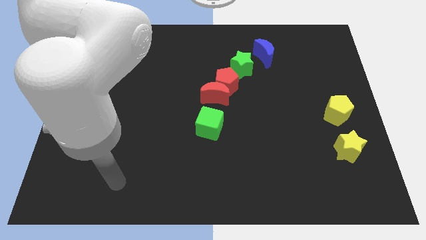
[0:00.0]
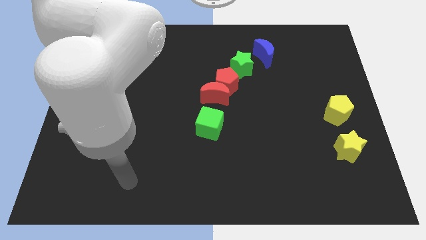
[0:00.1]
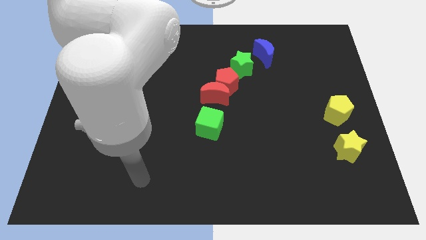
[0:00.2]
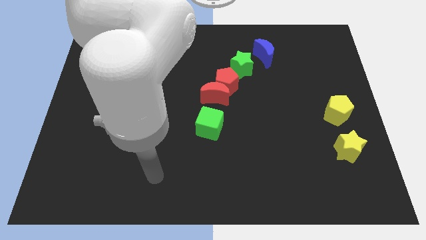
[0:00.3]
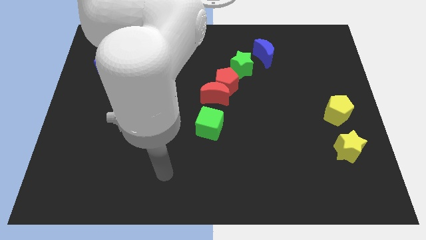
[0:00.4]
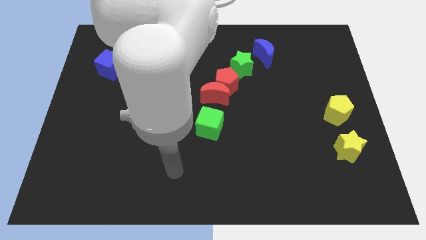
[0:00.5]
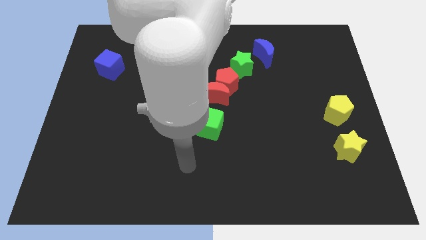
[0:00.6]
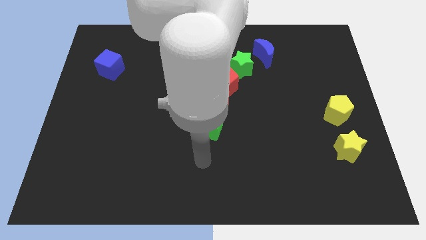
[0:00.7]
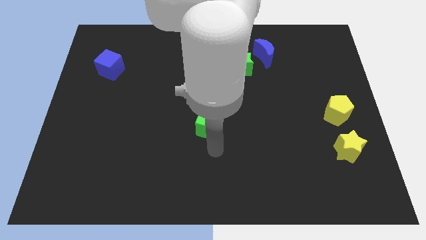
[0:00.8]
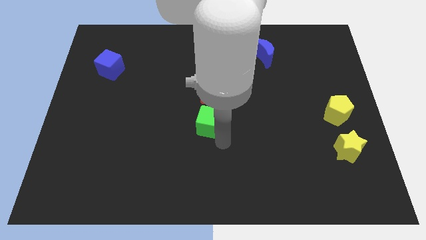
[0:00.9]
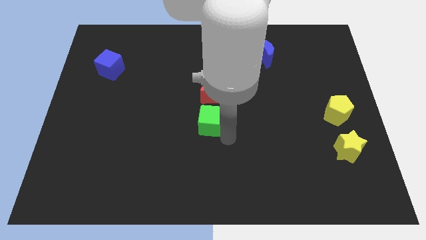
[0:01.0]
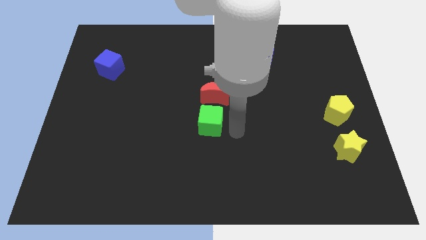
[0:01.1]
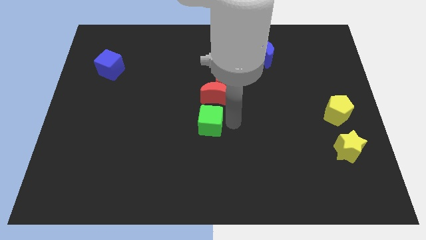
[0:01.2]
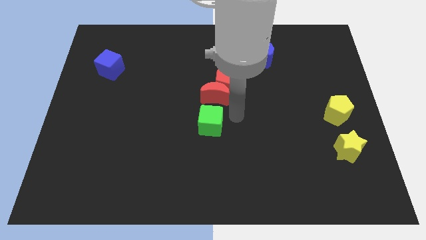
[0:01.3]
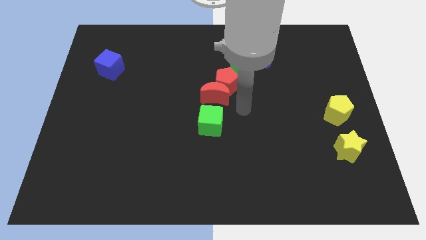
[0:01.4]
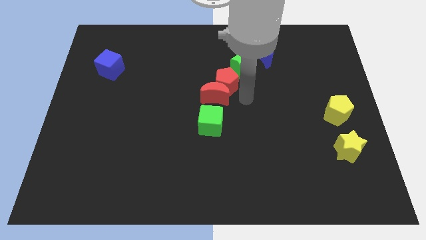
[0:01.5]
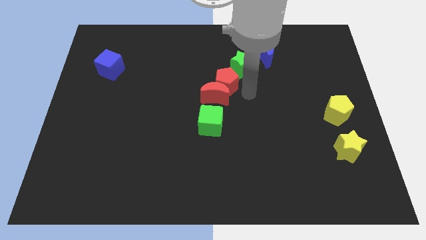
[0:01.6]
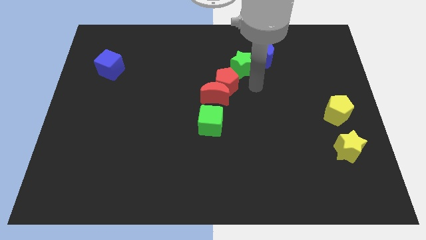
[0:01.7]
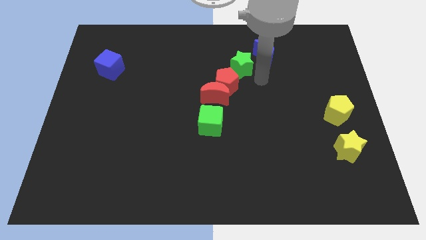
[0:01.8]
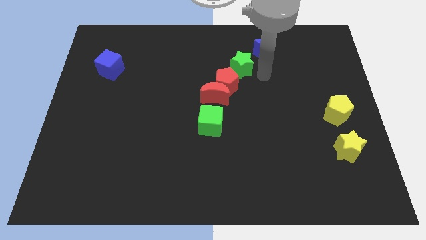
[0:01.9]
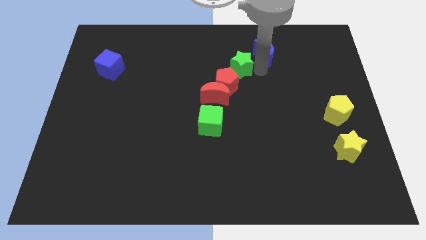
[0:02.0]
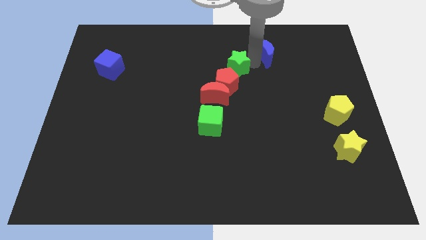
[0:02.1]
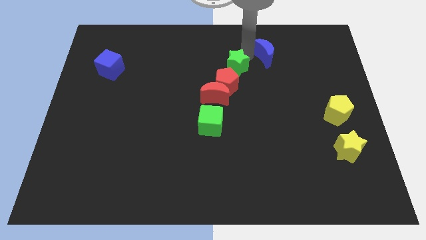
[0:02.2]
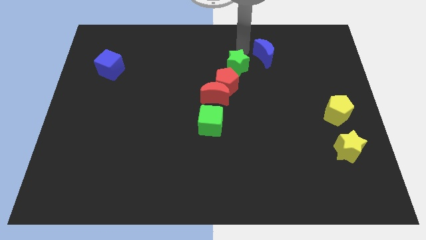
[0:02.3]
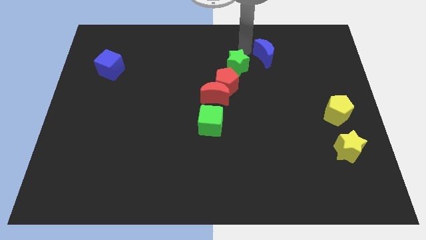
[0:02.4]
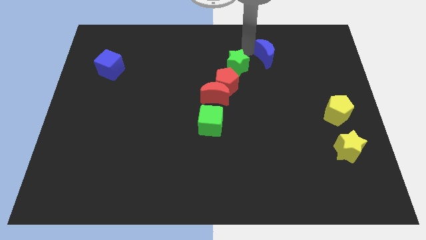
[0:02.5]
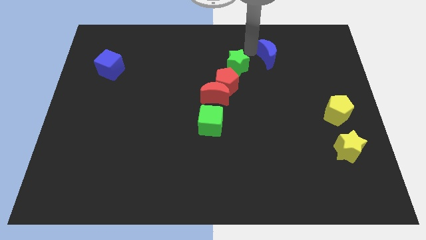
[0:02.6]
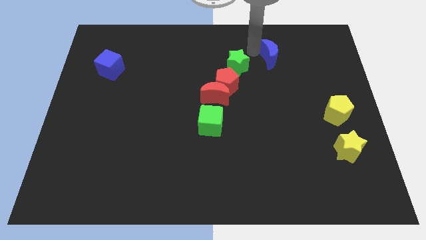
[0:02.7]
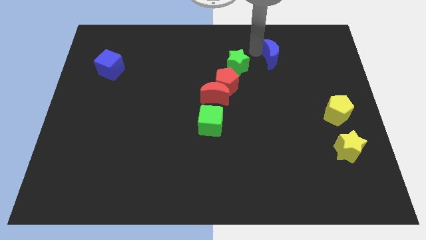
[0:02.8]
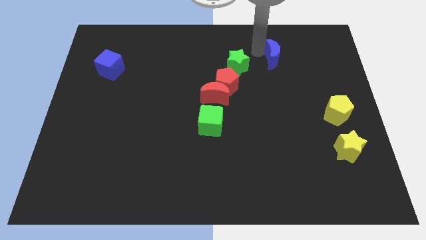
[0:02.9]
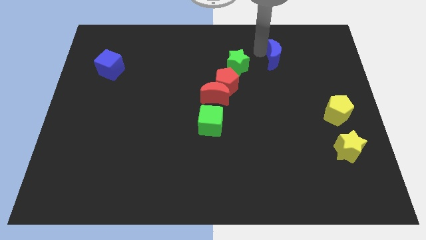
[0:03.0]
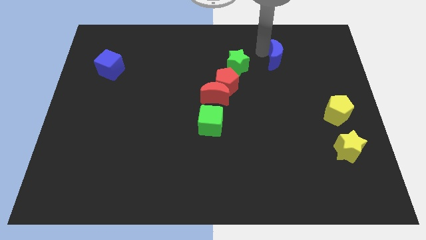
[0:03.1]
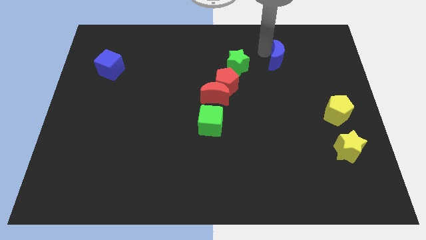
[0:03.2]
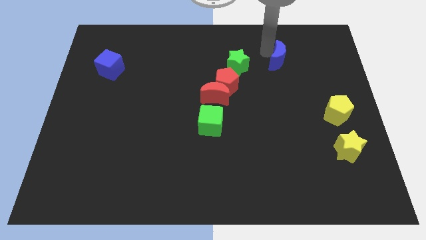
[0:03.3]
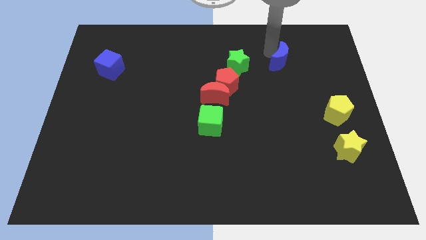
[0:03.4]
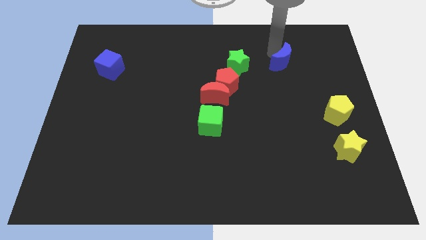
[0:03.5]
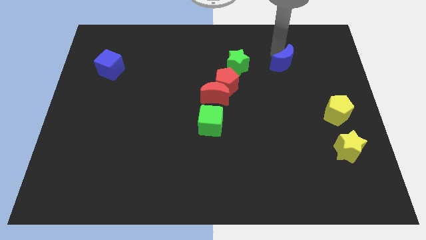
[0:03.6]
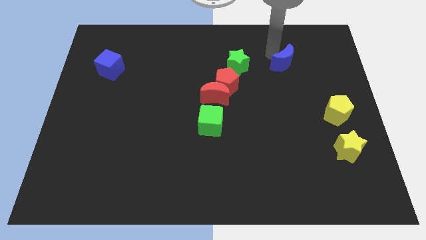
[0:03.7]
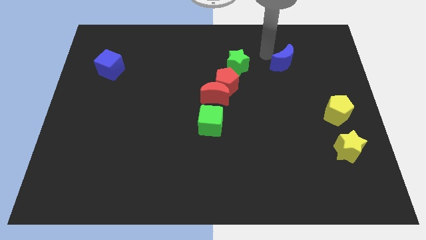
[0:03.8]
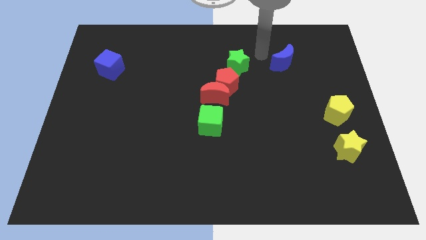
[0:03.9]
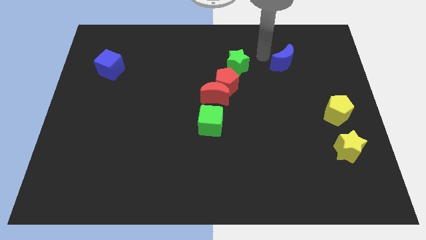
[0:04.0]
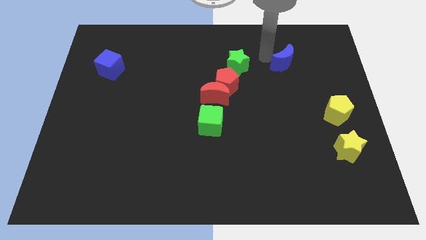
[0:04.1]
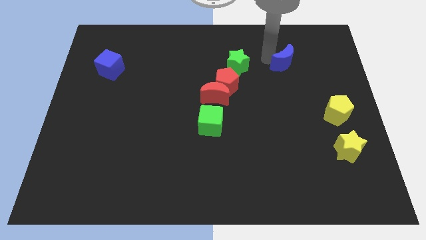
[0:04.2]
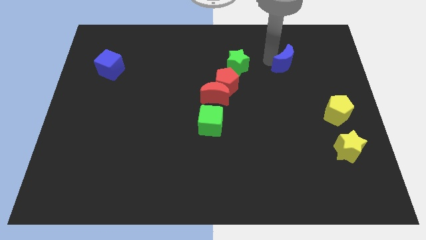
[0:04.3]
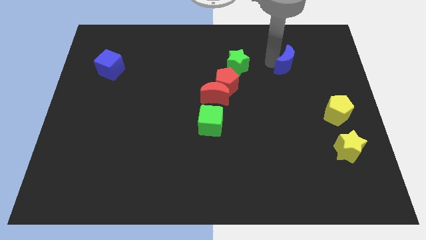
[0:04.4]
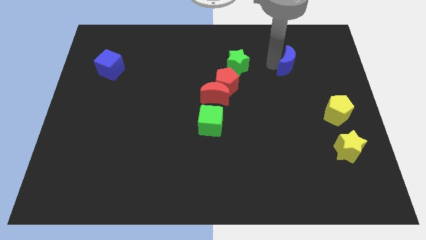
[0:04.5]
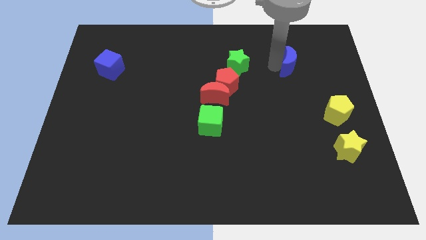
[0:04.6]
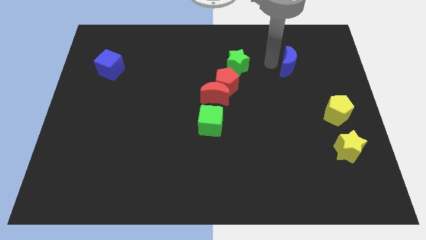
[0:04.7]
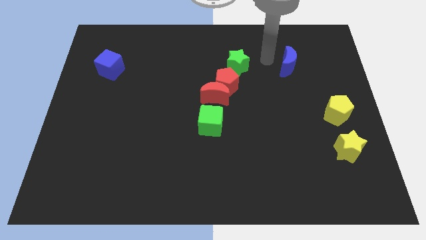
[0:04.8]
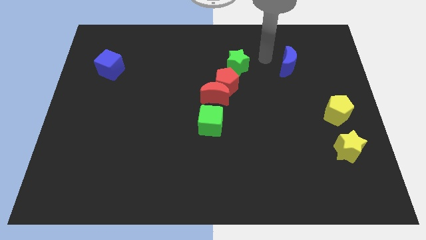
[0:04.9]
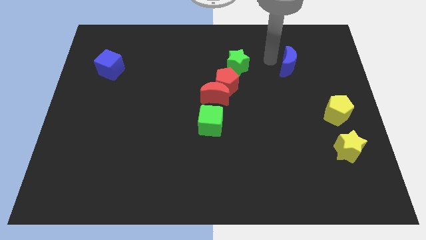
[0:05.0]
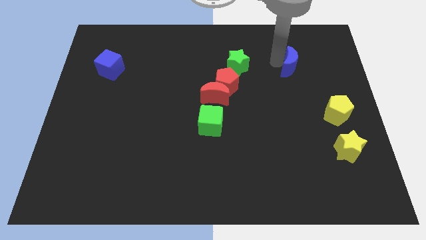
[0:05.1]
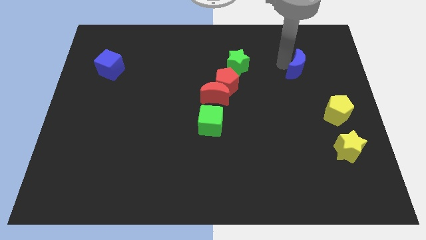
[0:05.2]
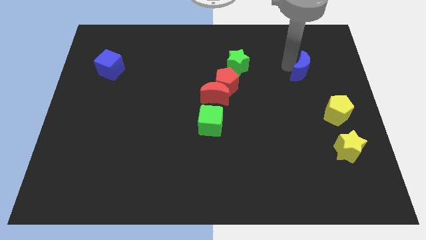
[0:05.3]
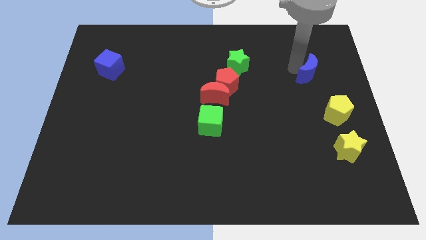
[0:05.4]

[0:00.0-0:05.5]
put the blue moon to the top side of the yellow pentagon

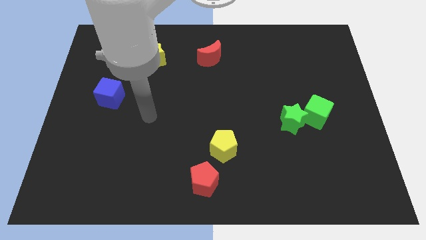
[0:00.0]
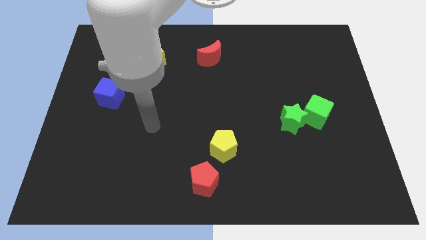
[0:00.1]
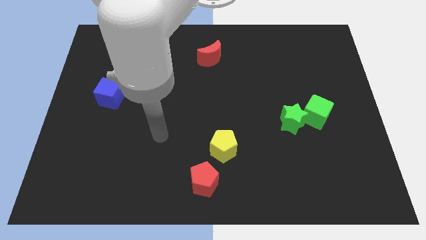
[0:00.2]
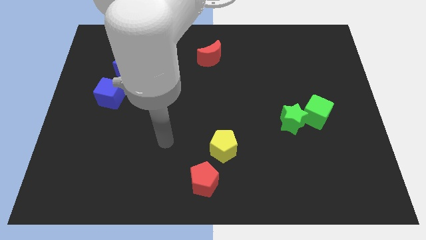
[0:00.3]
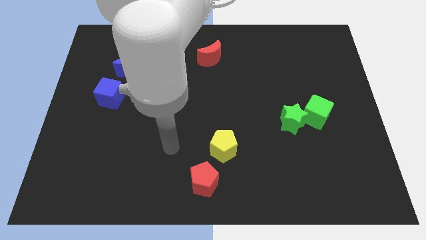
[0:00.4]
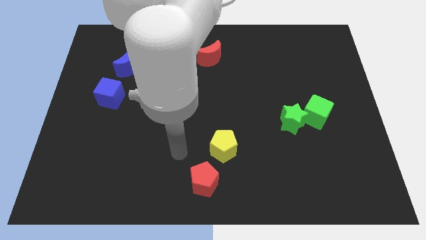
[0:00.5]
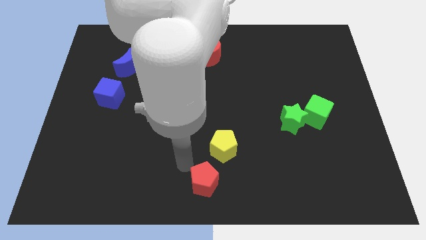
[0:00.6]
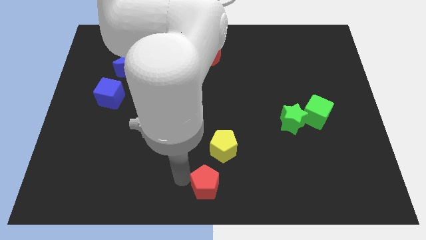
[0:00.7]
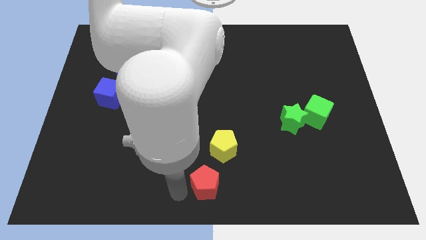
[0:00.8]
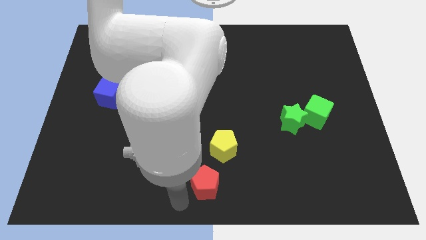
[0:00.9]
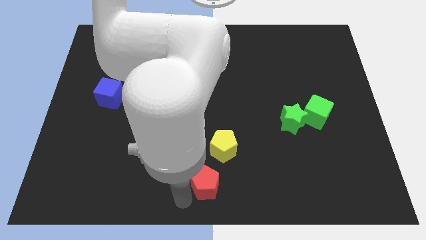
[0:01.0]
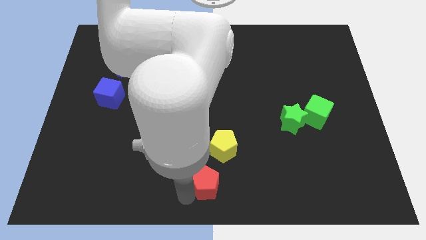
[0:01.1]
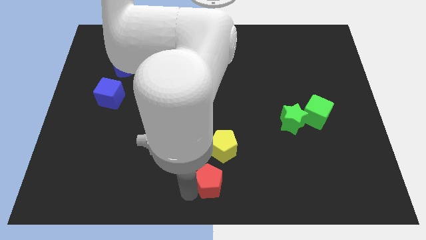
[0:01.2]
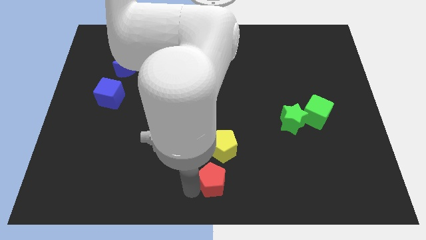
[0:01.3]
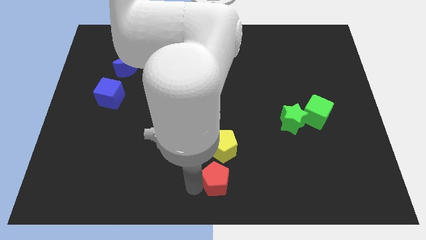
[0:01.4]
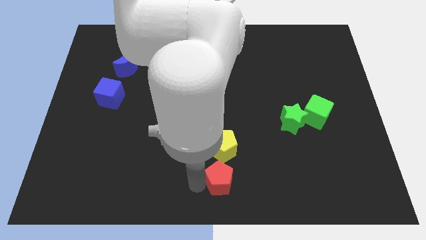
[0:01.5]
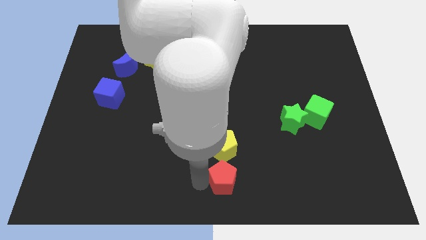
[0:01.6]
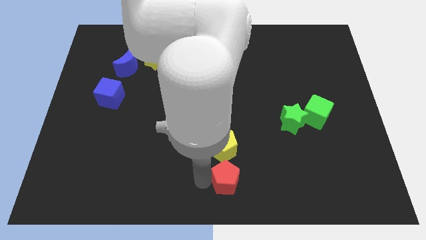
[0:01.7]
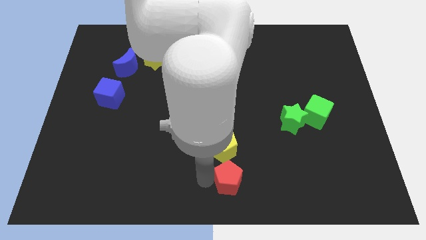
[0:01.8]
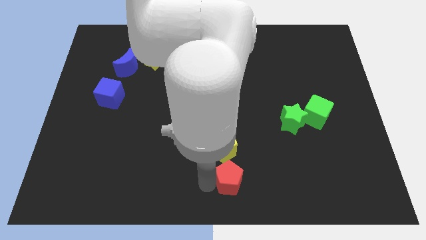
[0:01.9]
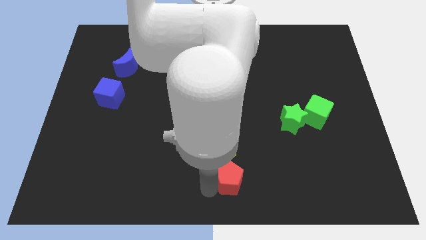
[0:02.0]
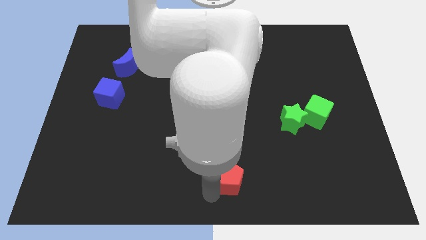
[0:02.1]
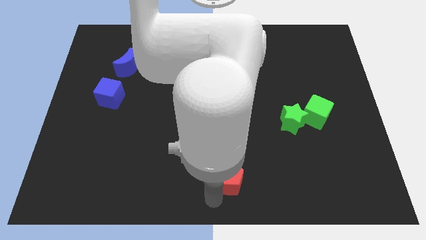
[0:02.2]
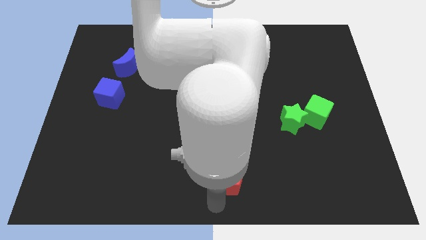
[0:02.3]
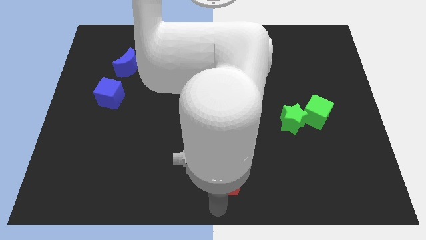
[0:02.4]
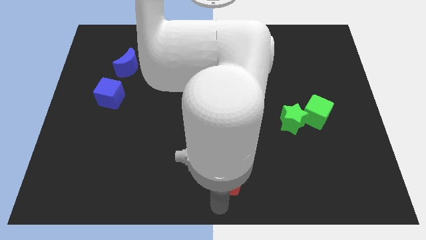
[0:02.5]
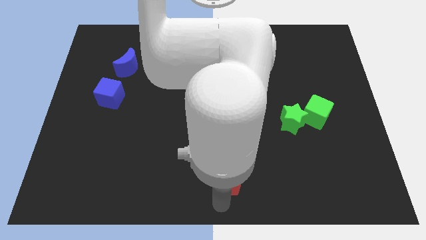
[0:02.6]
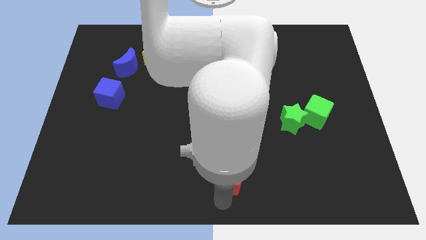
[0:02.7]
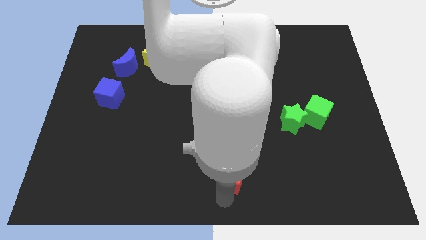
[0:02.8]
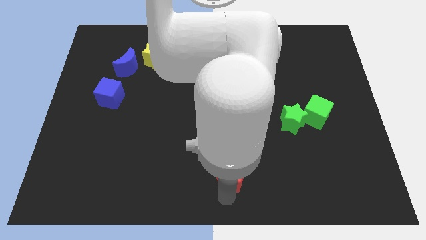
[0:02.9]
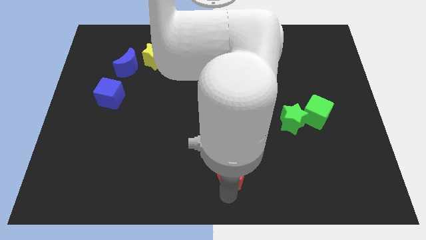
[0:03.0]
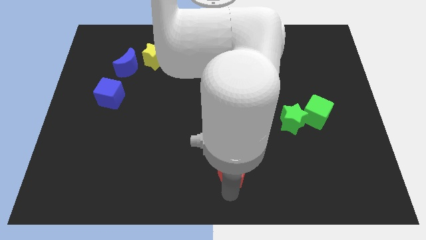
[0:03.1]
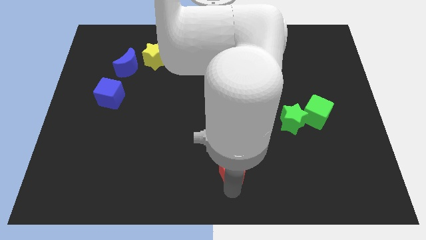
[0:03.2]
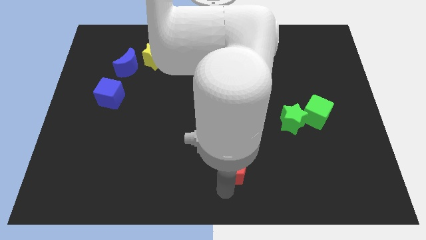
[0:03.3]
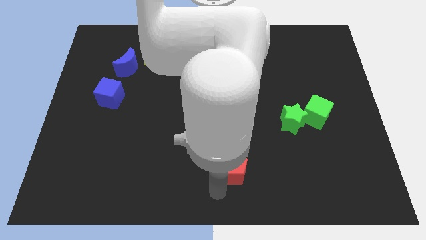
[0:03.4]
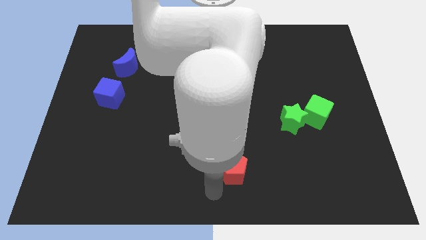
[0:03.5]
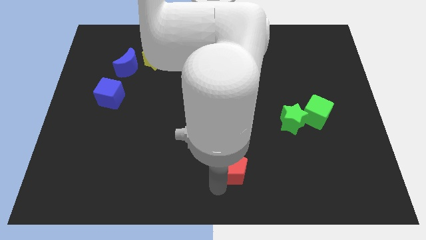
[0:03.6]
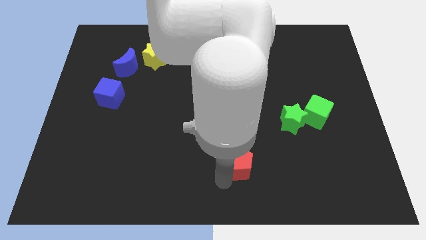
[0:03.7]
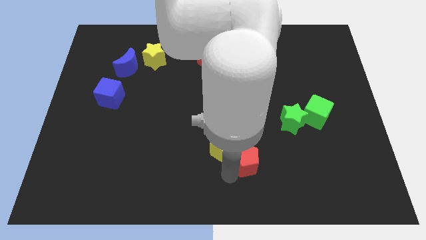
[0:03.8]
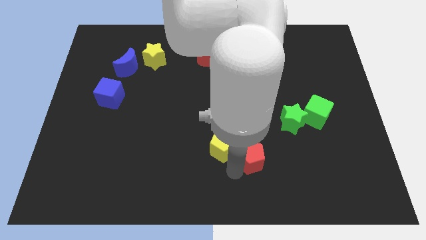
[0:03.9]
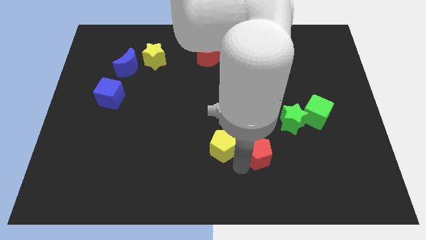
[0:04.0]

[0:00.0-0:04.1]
push the red pentagon to the bottom left side of the green star
